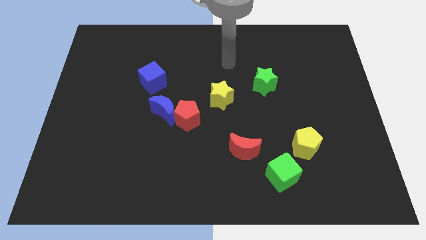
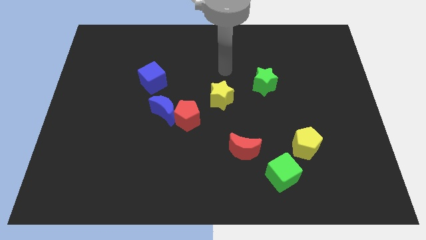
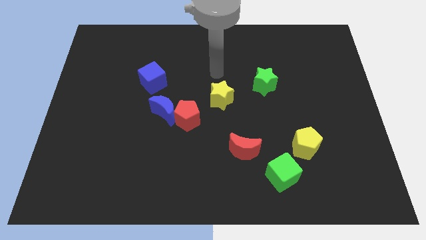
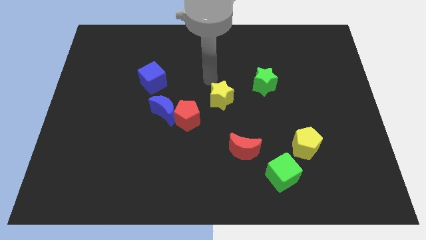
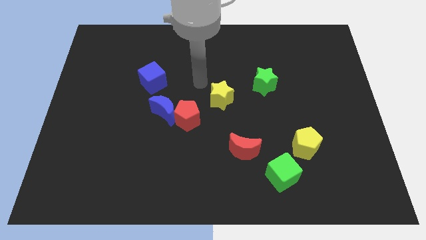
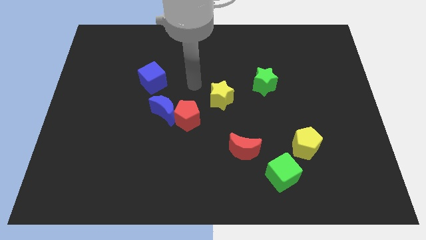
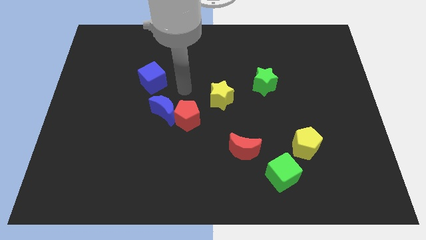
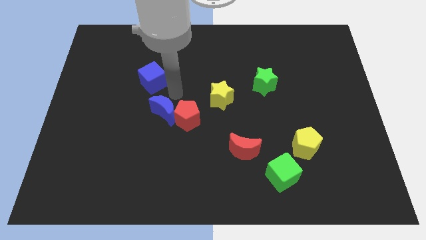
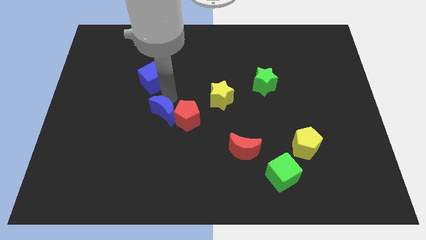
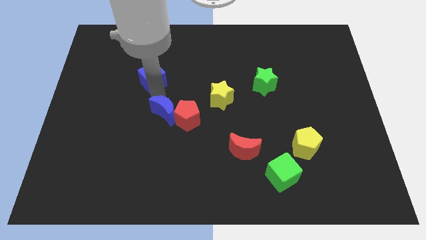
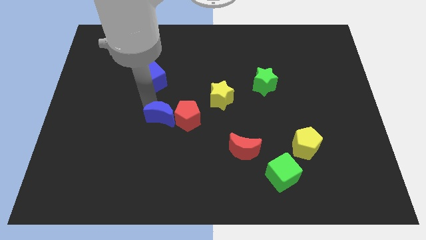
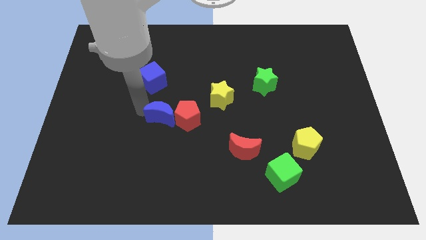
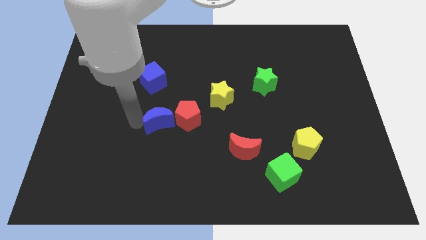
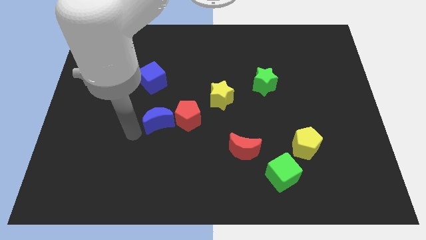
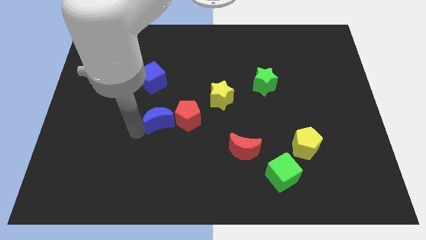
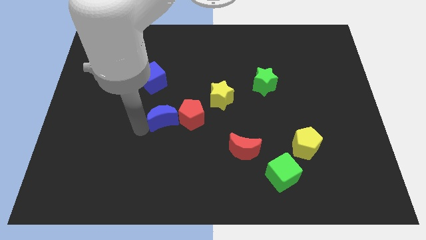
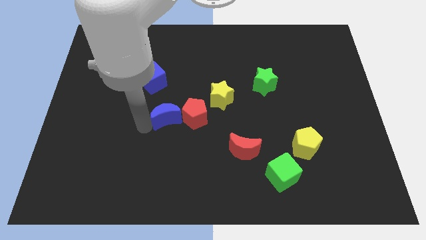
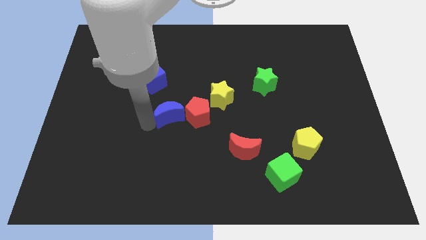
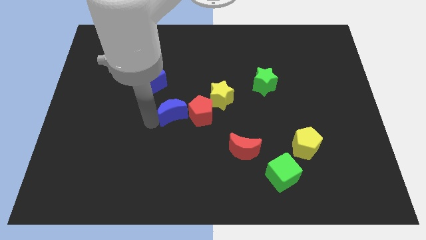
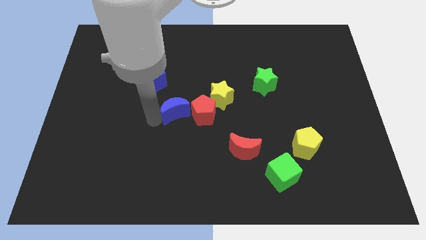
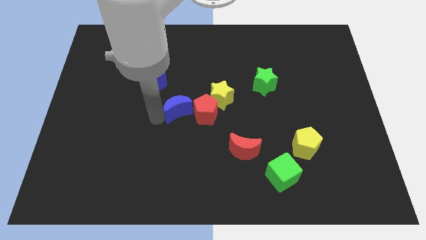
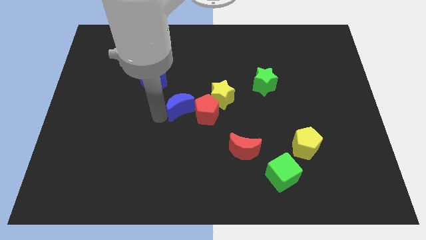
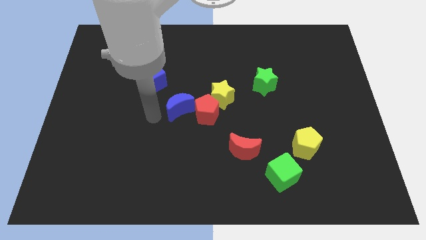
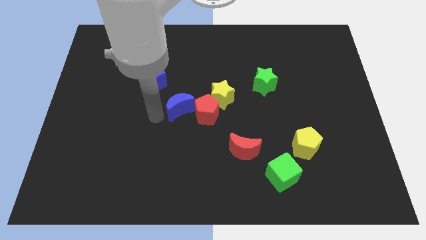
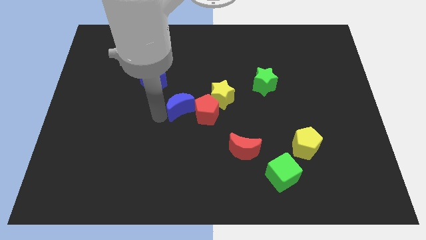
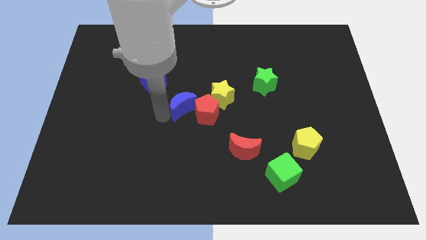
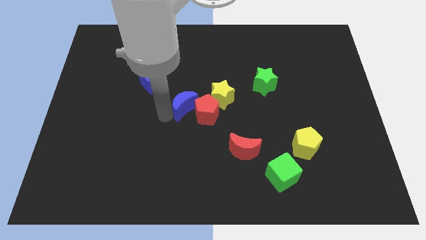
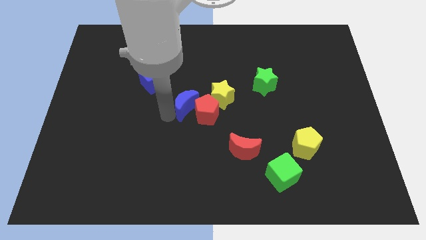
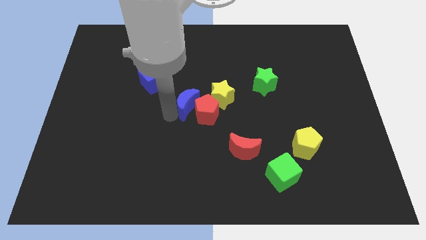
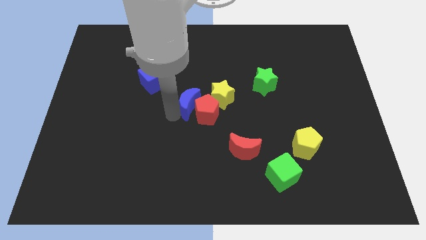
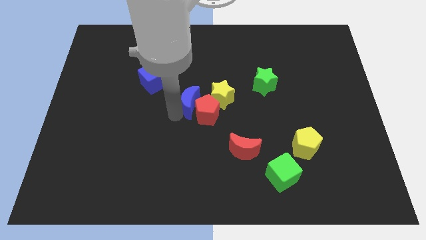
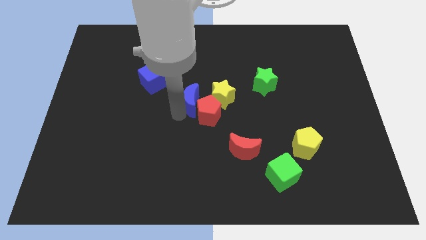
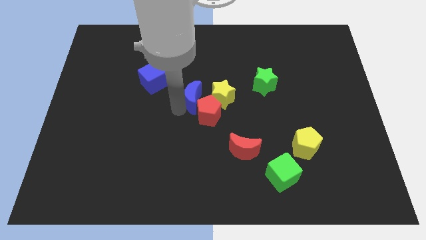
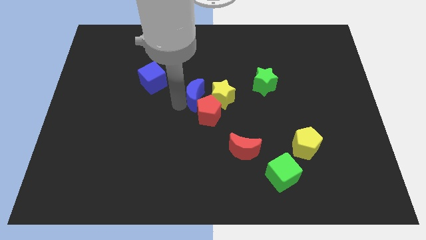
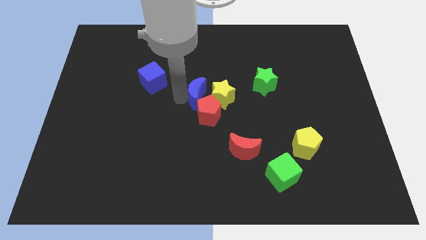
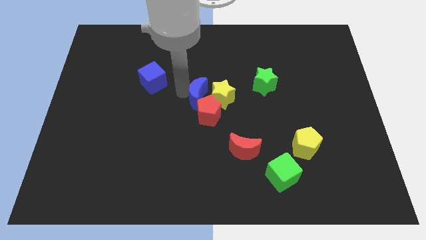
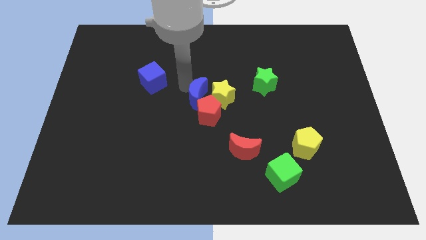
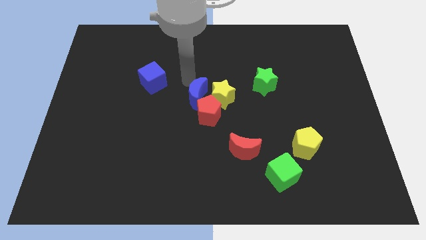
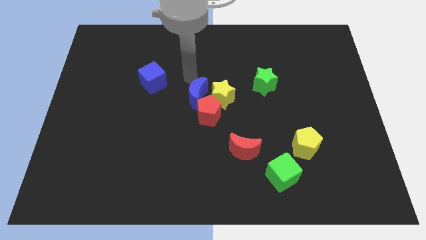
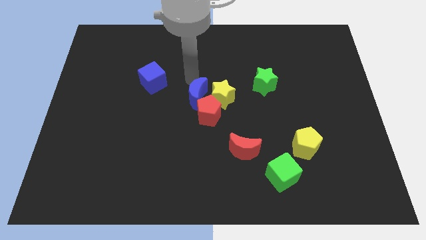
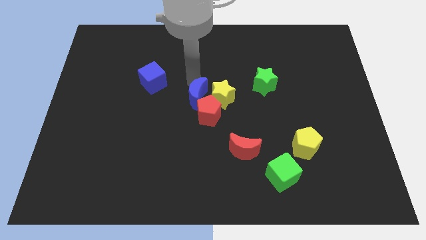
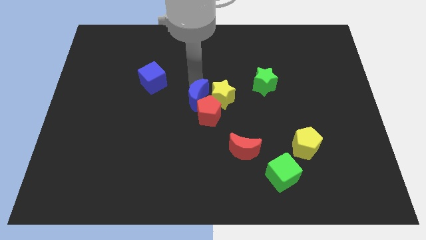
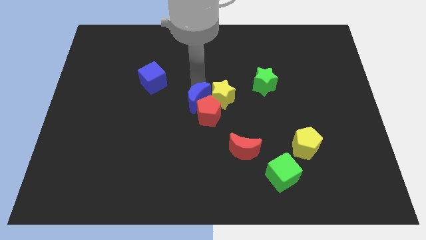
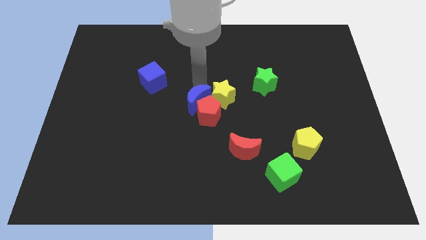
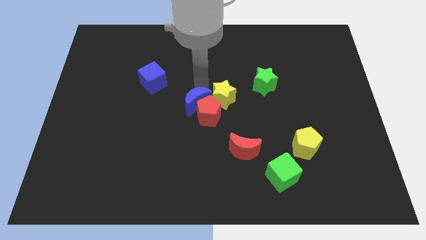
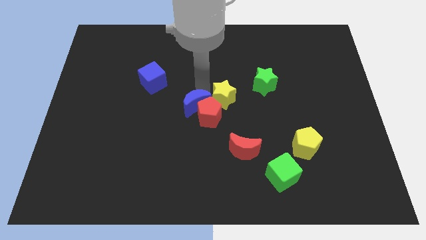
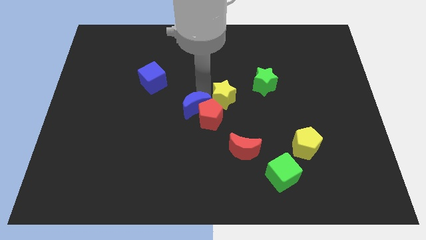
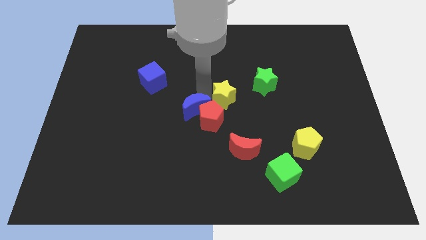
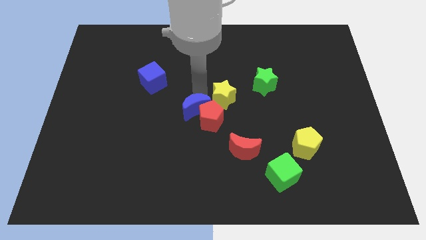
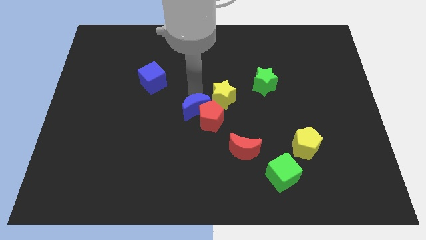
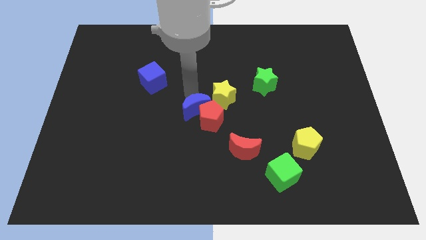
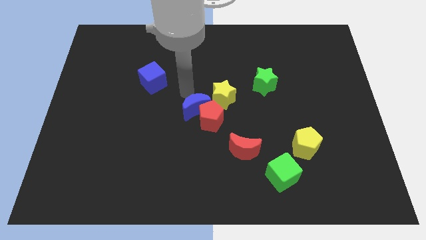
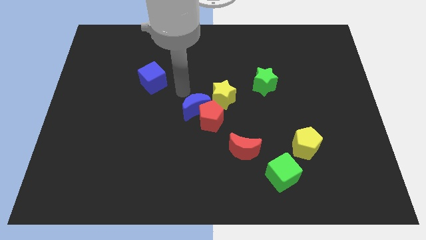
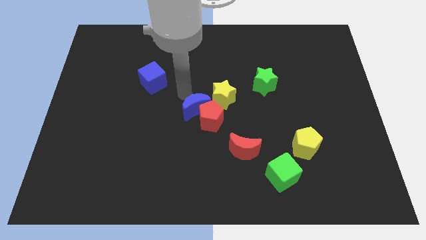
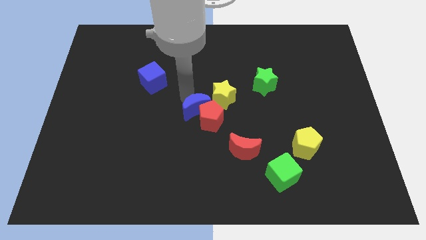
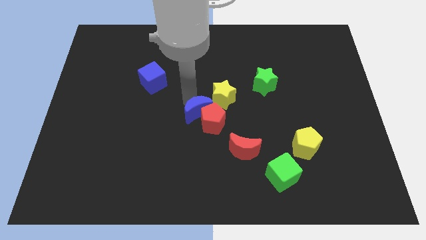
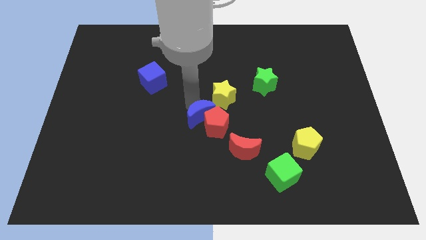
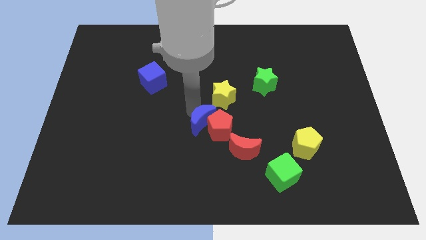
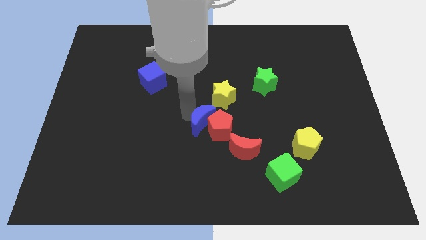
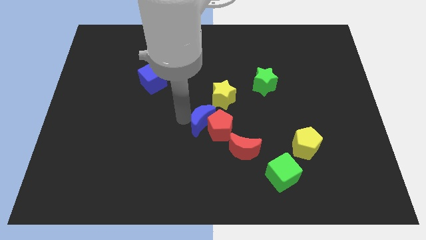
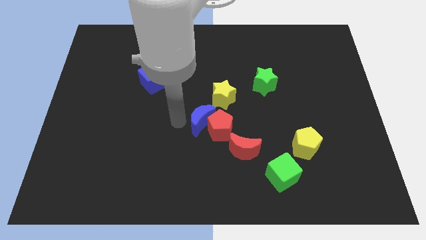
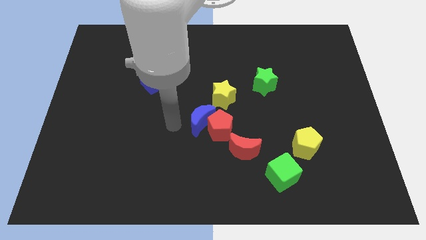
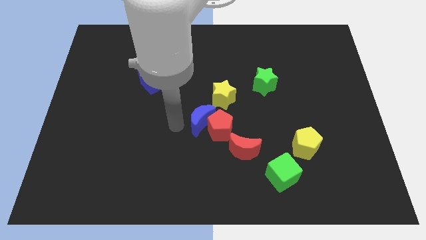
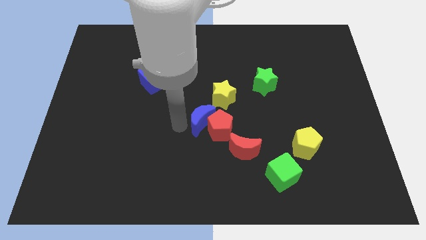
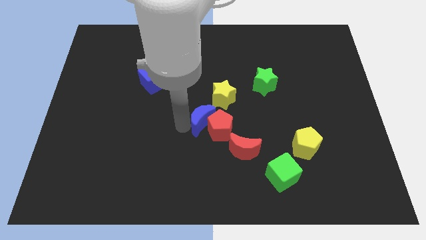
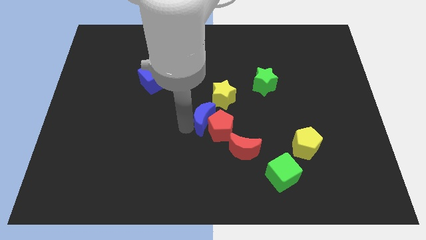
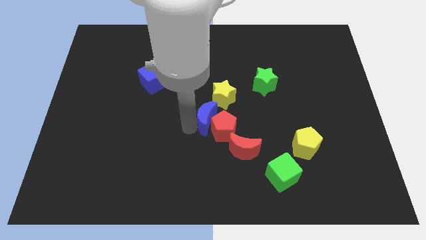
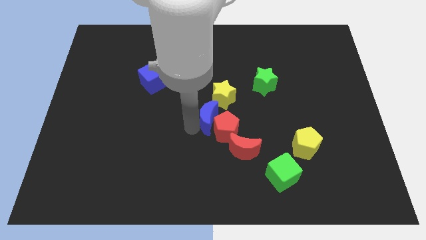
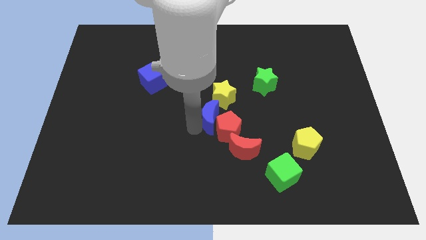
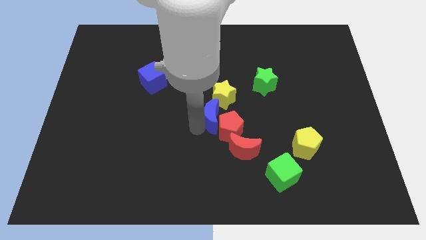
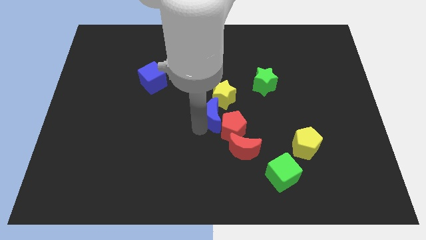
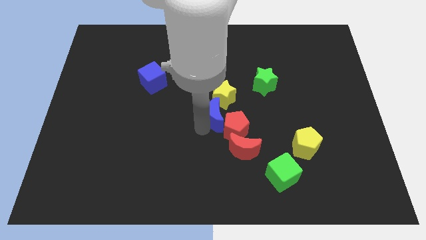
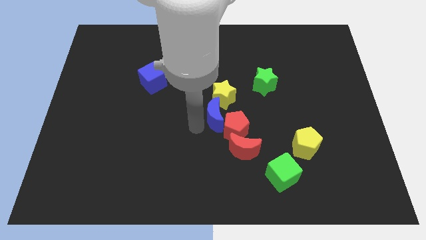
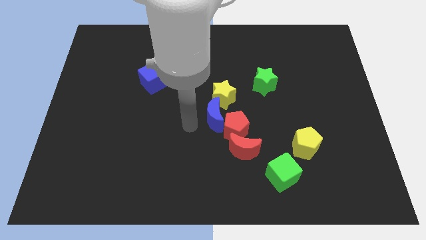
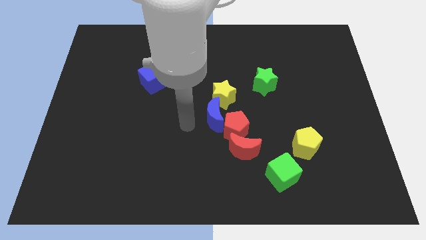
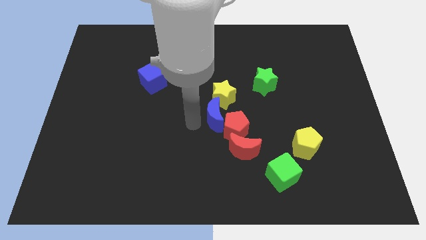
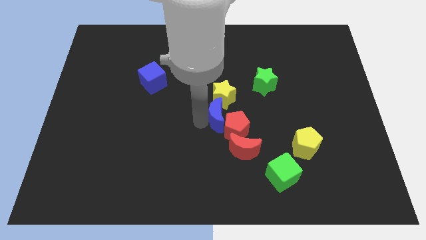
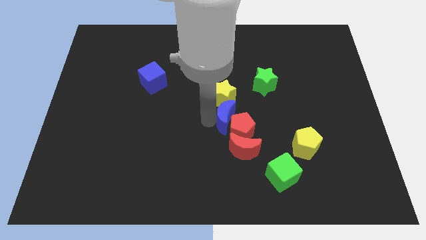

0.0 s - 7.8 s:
slide the blue moon above the red moon
